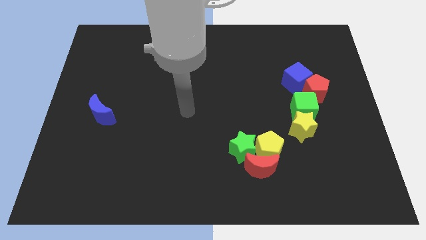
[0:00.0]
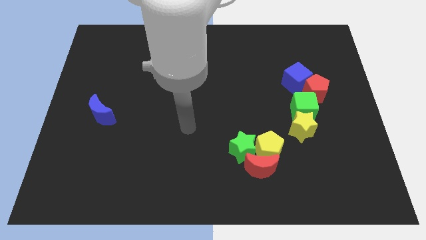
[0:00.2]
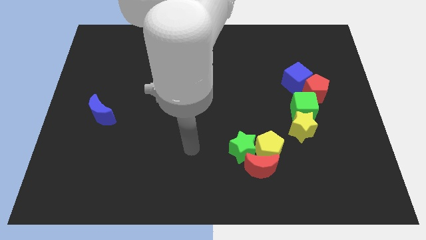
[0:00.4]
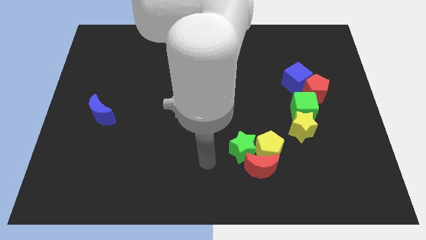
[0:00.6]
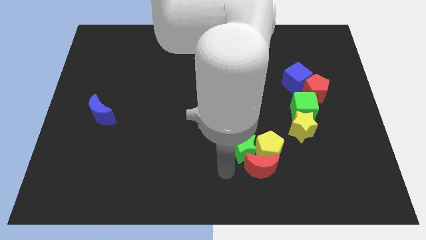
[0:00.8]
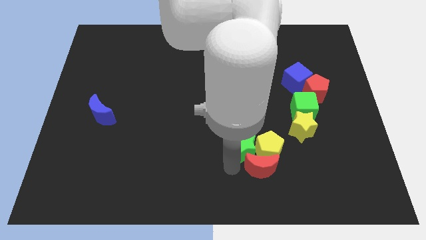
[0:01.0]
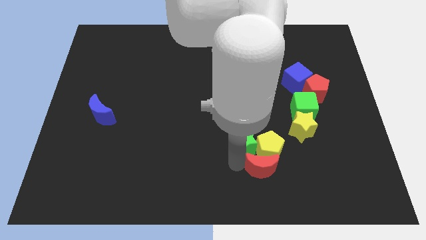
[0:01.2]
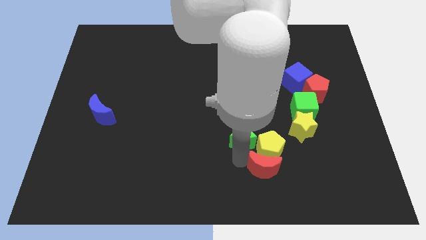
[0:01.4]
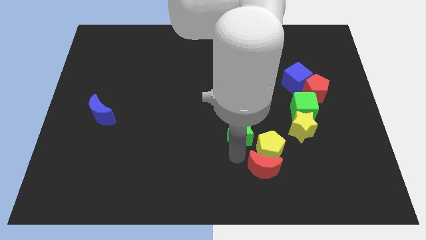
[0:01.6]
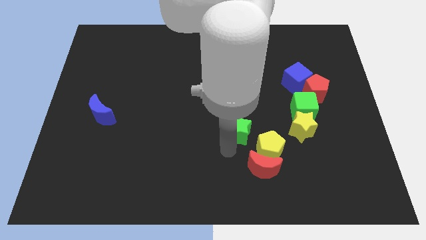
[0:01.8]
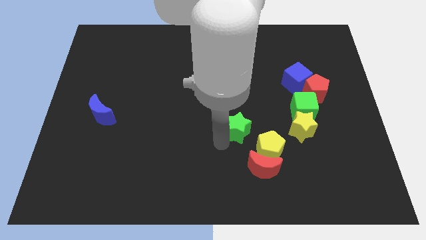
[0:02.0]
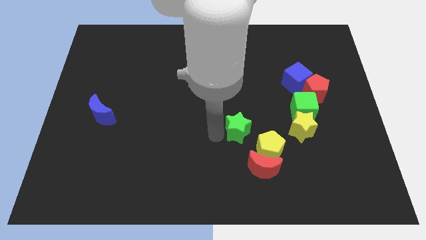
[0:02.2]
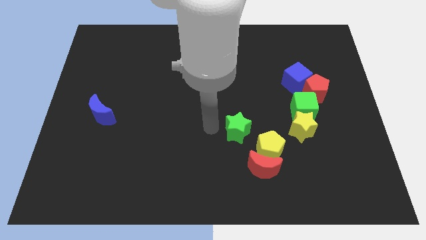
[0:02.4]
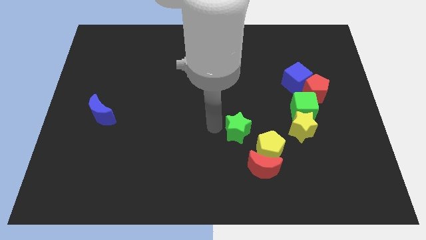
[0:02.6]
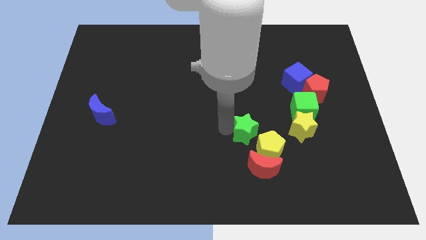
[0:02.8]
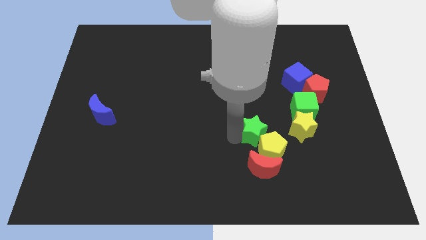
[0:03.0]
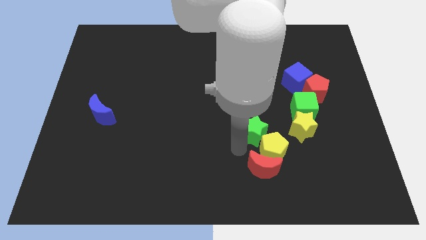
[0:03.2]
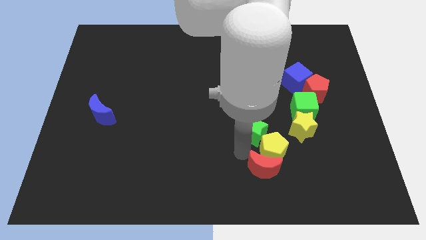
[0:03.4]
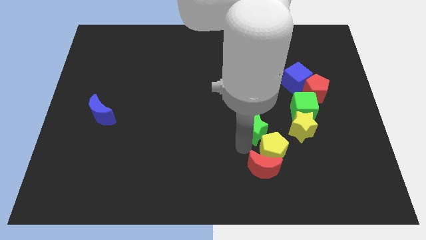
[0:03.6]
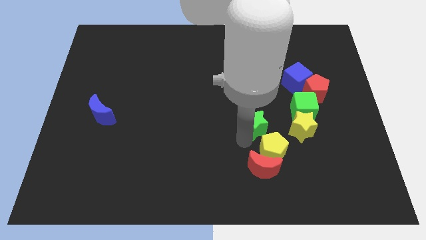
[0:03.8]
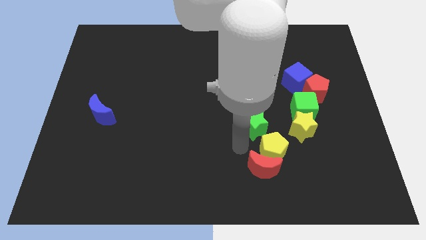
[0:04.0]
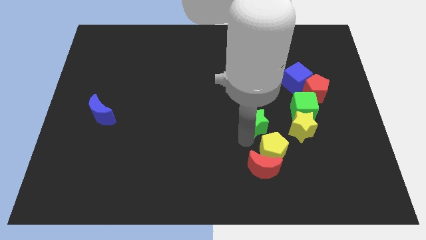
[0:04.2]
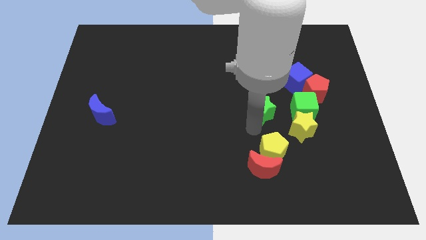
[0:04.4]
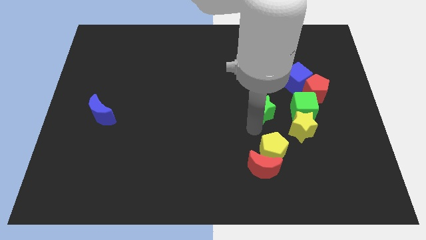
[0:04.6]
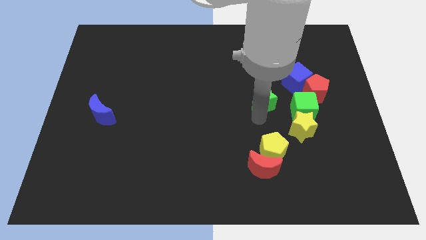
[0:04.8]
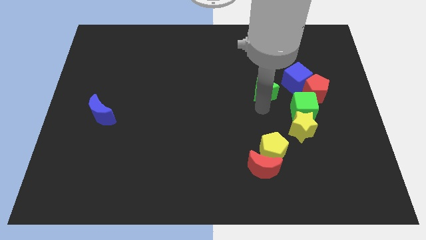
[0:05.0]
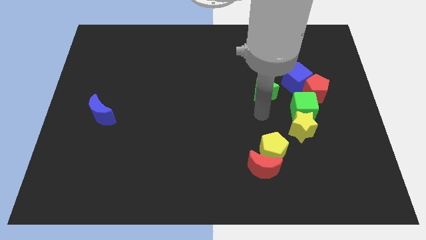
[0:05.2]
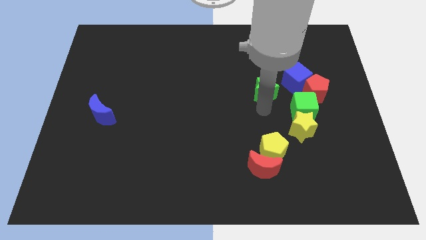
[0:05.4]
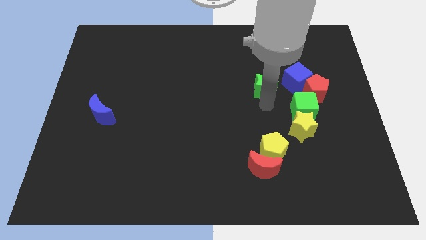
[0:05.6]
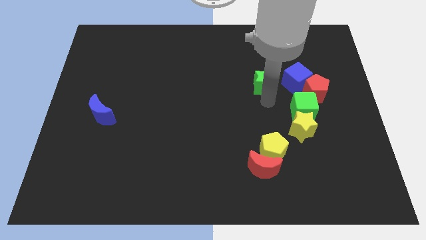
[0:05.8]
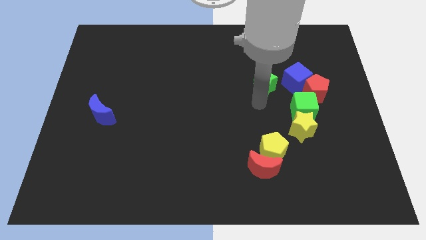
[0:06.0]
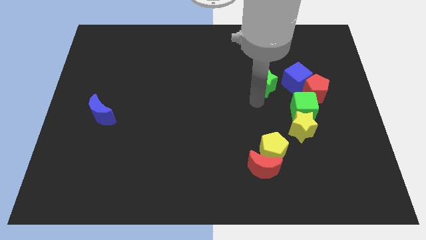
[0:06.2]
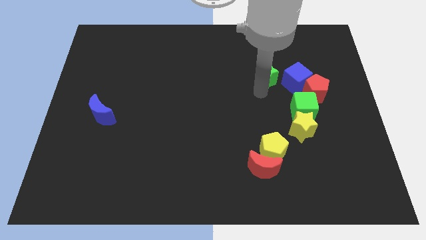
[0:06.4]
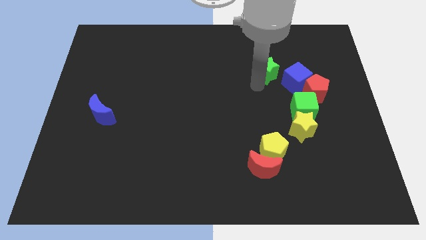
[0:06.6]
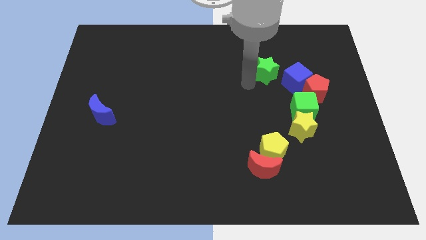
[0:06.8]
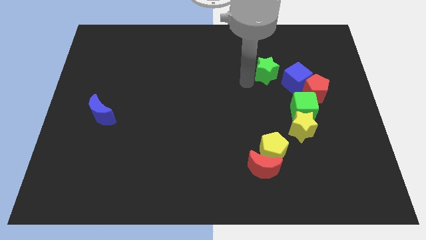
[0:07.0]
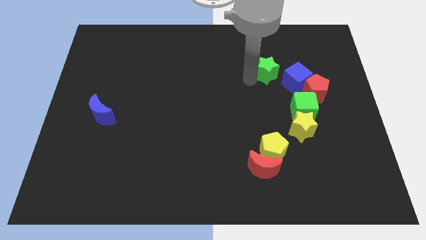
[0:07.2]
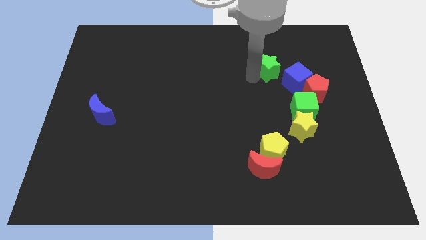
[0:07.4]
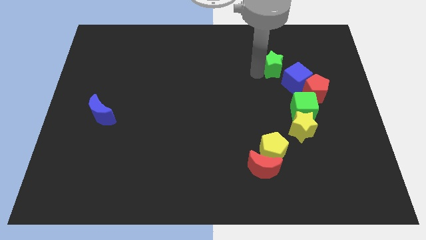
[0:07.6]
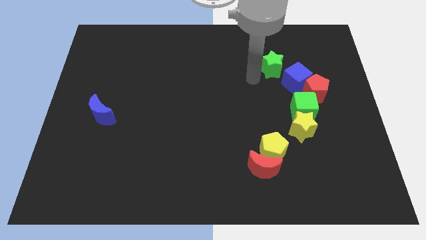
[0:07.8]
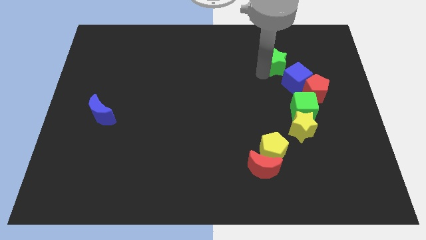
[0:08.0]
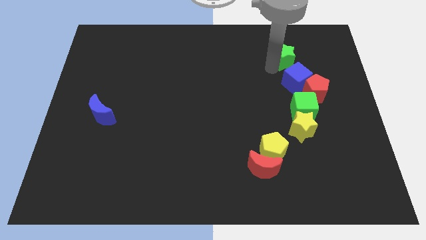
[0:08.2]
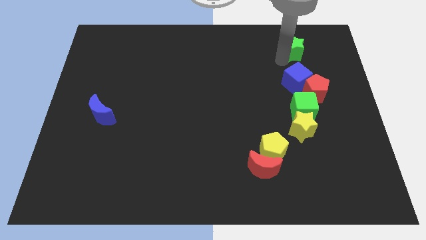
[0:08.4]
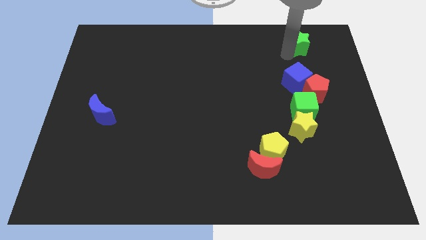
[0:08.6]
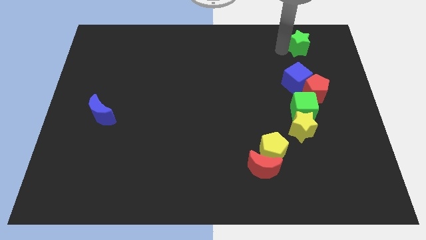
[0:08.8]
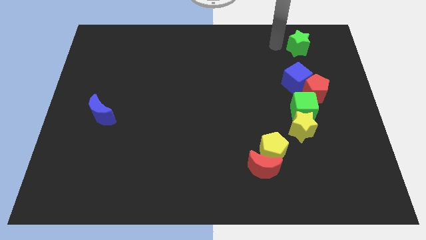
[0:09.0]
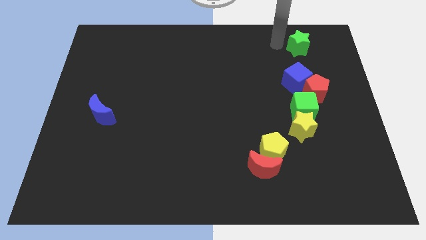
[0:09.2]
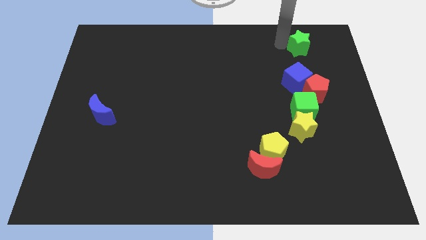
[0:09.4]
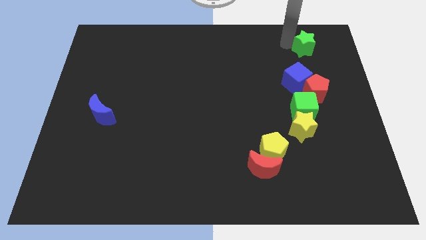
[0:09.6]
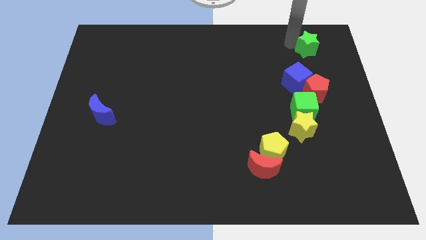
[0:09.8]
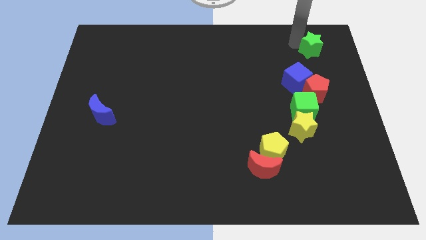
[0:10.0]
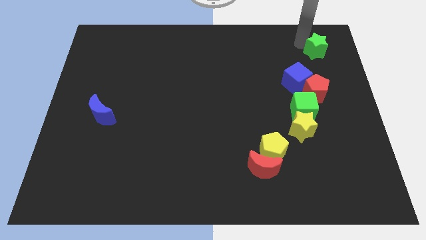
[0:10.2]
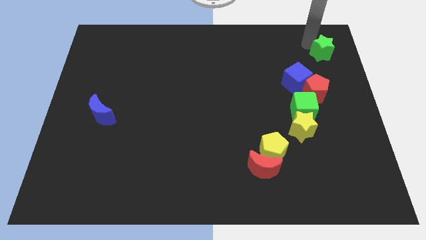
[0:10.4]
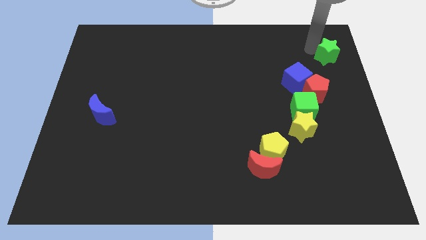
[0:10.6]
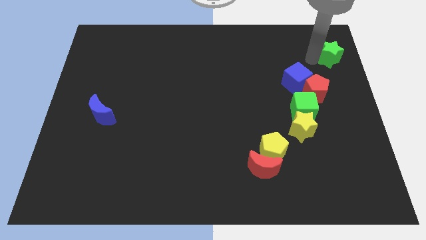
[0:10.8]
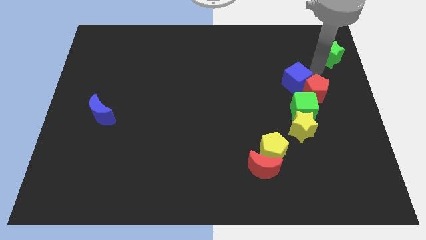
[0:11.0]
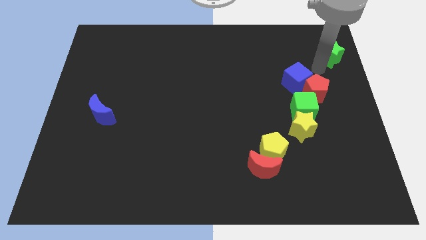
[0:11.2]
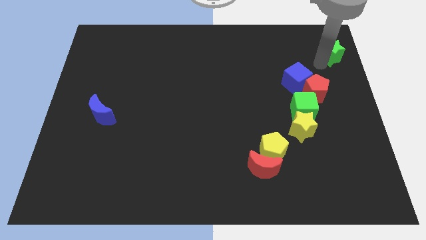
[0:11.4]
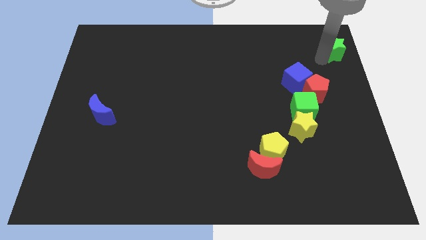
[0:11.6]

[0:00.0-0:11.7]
put the green star to the upper right corner

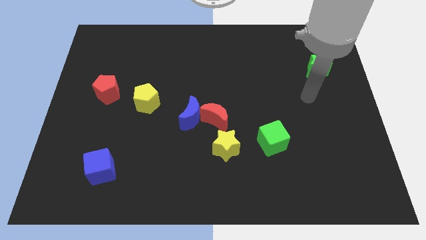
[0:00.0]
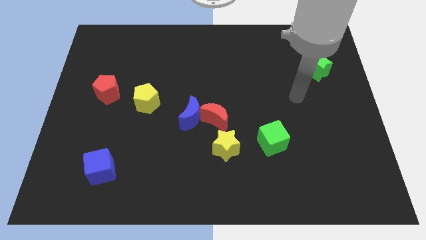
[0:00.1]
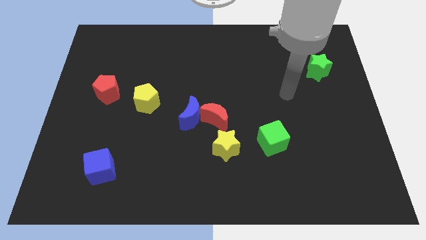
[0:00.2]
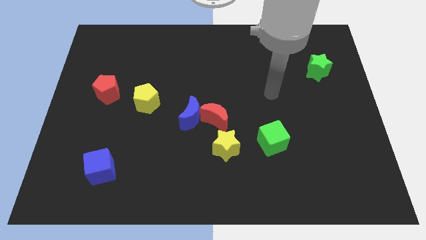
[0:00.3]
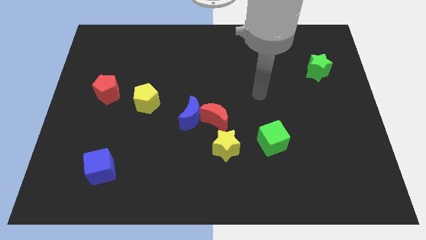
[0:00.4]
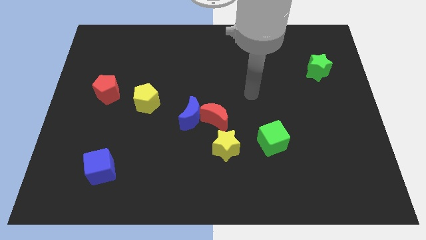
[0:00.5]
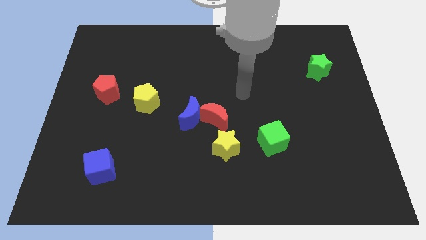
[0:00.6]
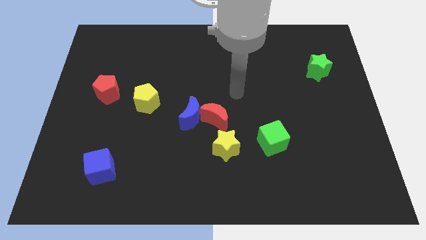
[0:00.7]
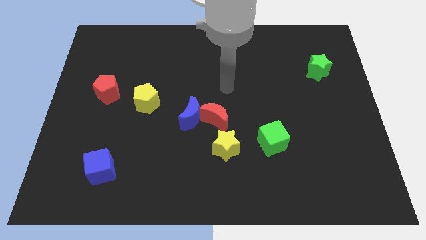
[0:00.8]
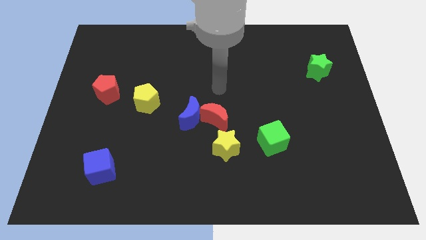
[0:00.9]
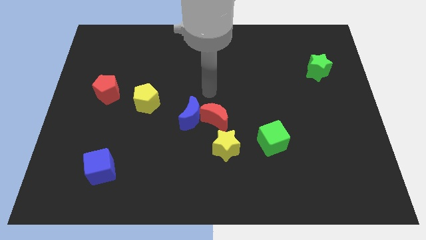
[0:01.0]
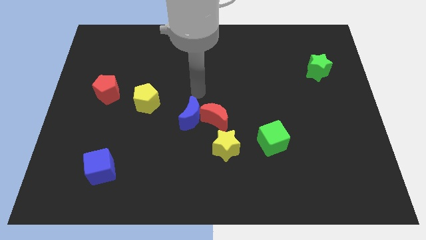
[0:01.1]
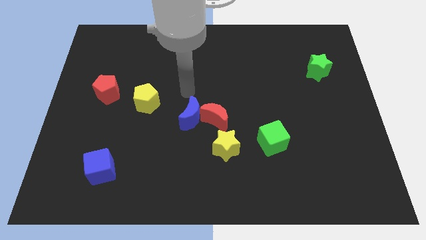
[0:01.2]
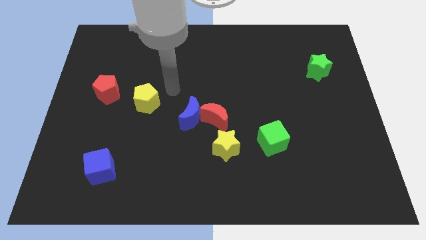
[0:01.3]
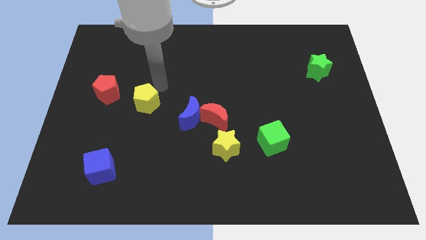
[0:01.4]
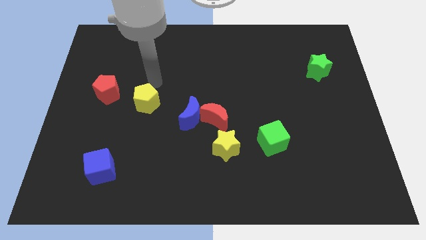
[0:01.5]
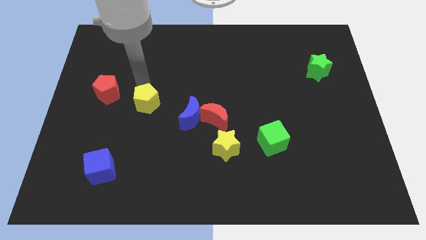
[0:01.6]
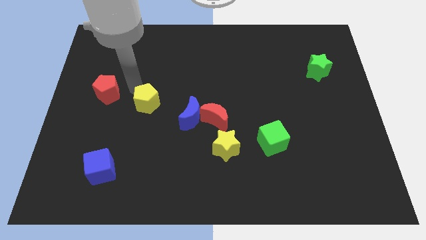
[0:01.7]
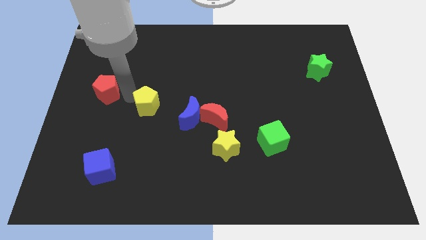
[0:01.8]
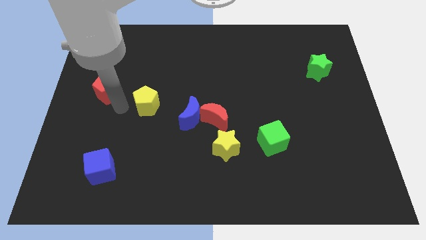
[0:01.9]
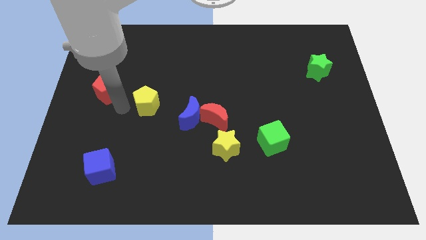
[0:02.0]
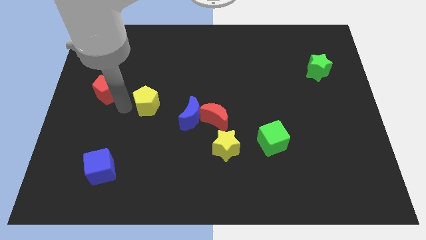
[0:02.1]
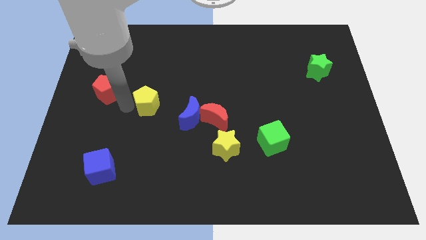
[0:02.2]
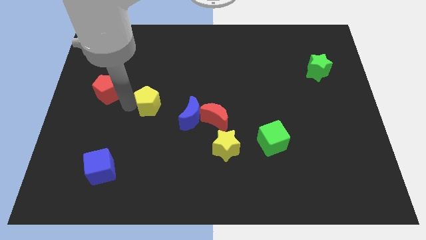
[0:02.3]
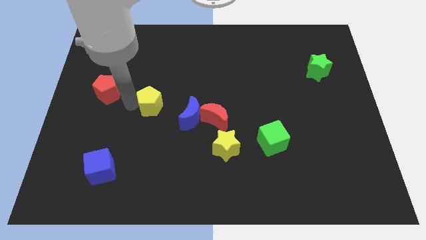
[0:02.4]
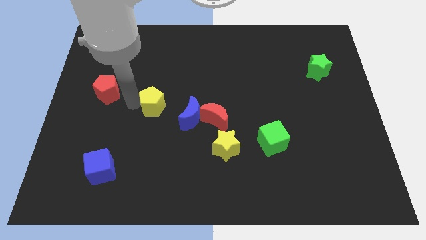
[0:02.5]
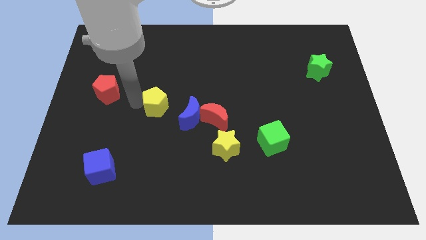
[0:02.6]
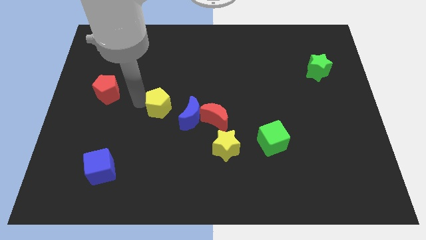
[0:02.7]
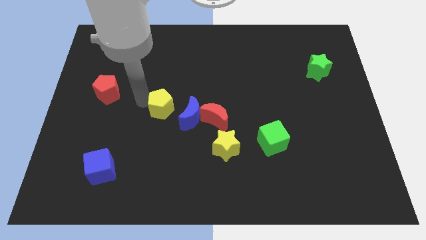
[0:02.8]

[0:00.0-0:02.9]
push the yellow pentagon to the center of the board
